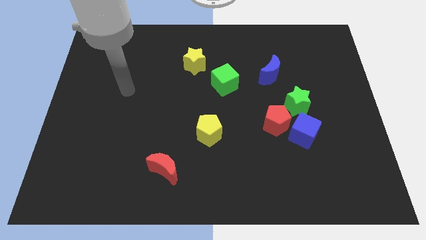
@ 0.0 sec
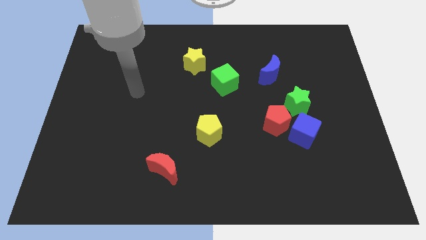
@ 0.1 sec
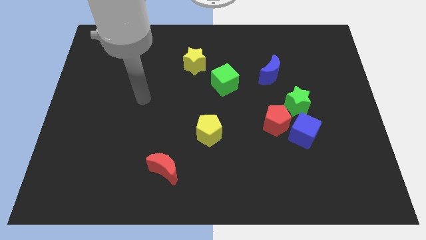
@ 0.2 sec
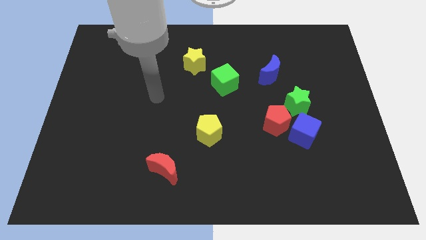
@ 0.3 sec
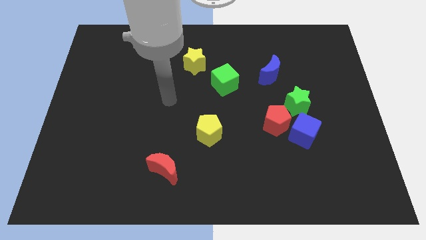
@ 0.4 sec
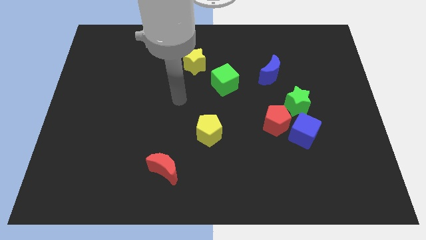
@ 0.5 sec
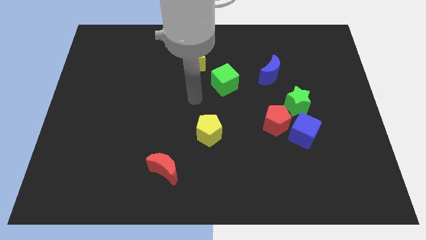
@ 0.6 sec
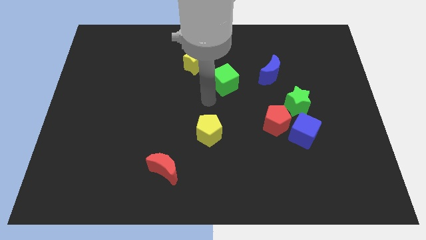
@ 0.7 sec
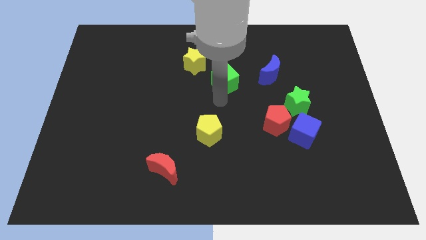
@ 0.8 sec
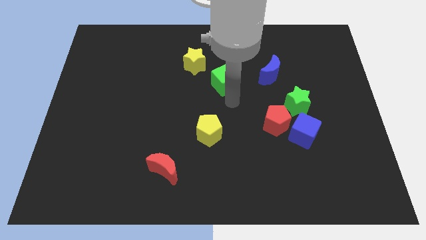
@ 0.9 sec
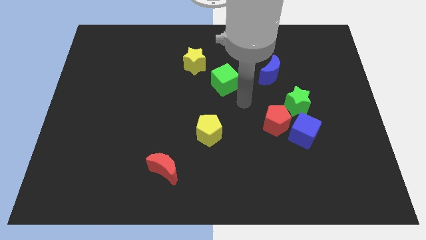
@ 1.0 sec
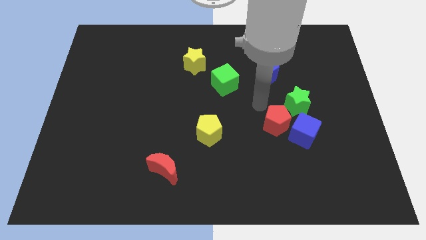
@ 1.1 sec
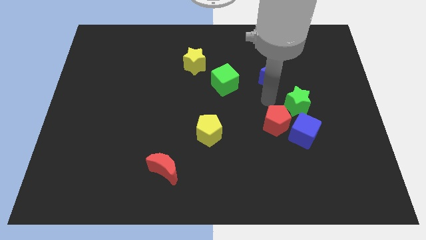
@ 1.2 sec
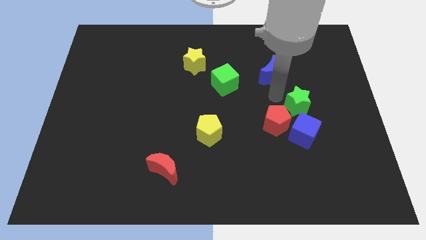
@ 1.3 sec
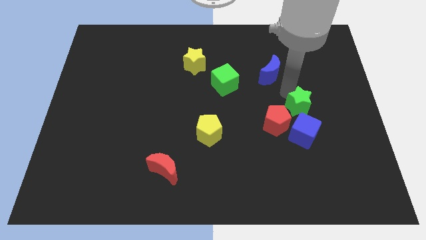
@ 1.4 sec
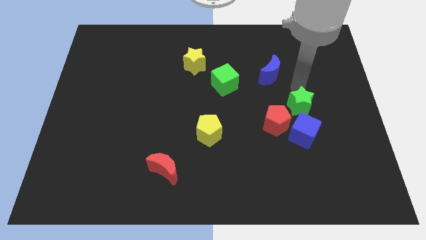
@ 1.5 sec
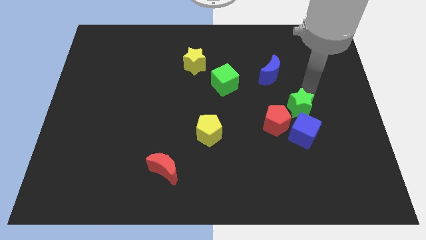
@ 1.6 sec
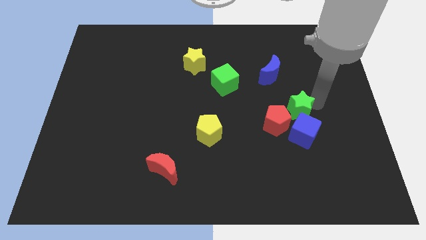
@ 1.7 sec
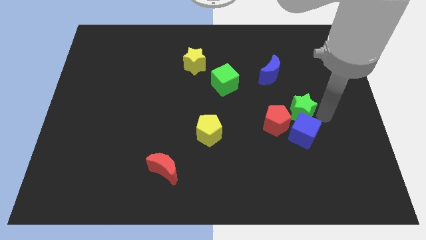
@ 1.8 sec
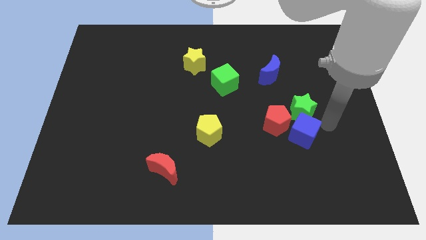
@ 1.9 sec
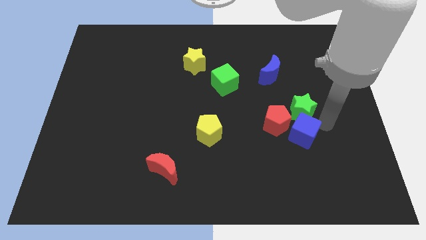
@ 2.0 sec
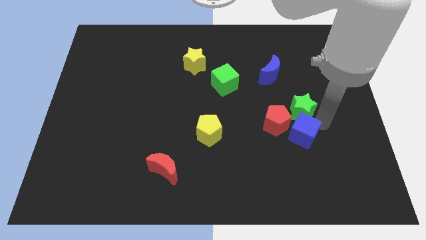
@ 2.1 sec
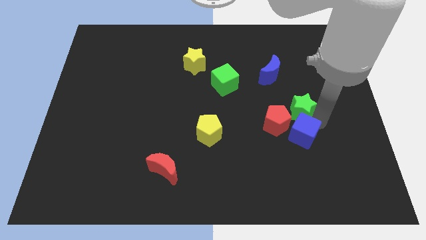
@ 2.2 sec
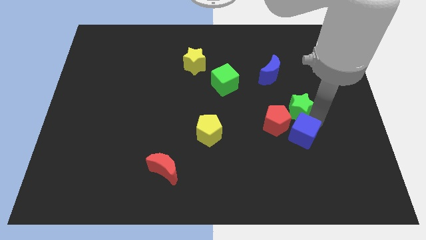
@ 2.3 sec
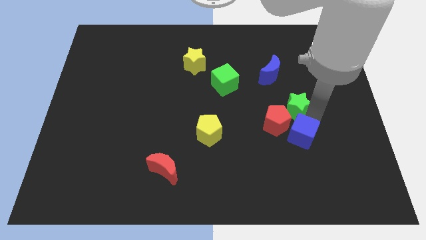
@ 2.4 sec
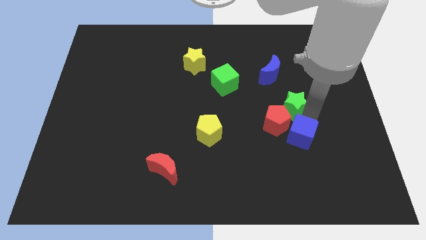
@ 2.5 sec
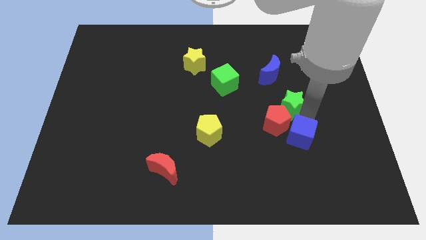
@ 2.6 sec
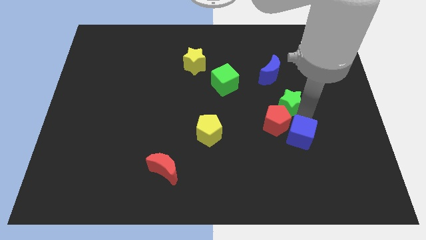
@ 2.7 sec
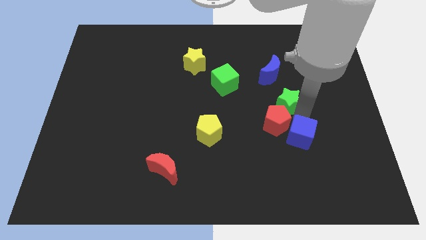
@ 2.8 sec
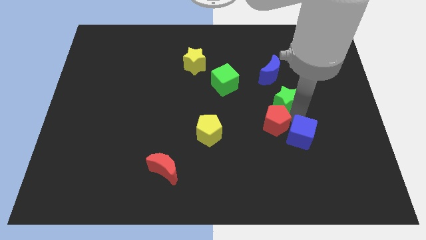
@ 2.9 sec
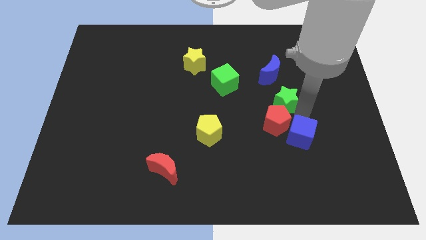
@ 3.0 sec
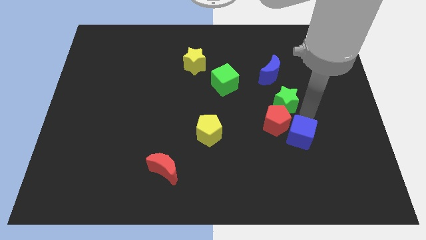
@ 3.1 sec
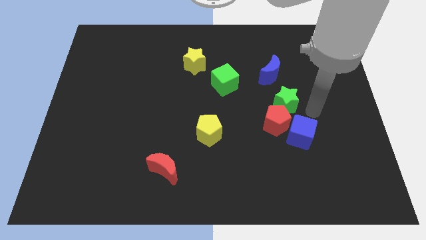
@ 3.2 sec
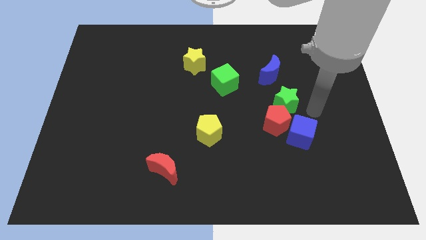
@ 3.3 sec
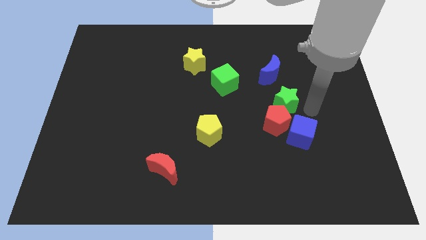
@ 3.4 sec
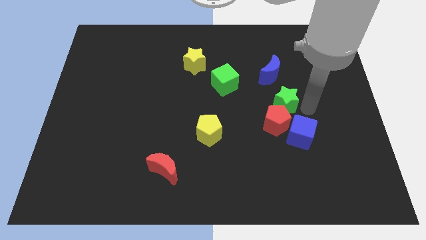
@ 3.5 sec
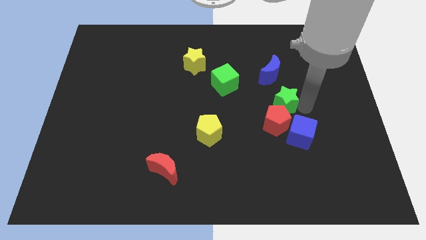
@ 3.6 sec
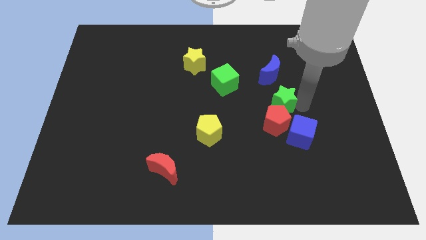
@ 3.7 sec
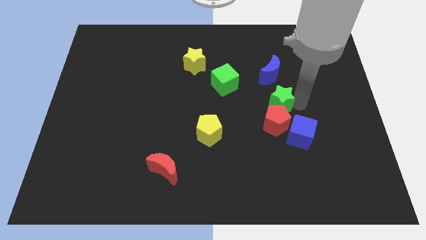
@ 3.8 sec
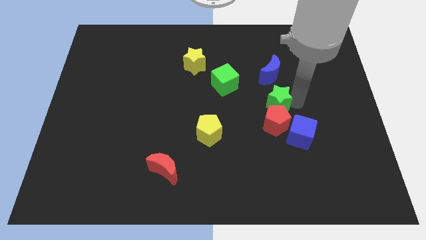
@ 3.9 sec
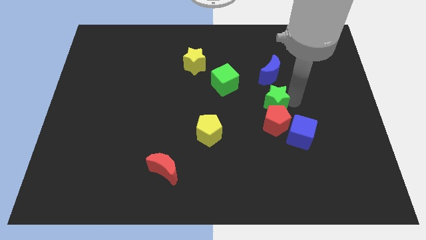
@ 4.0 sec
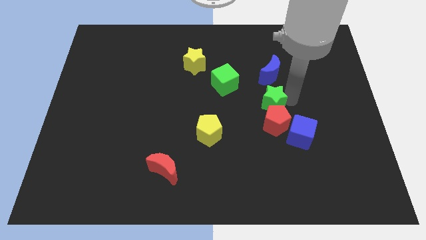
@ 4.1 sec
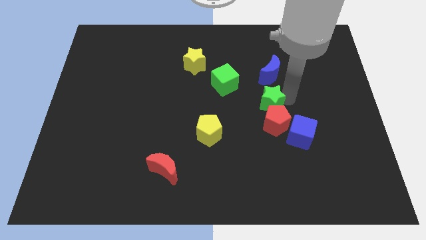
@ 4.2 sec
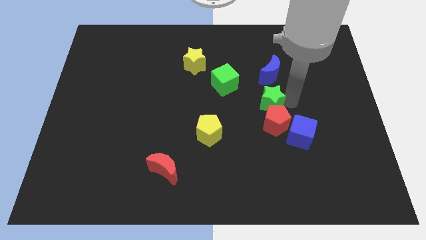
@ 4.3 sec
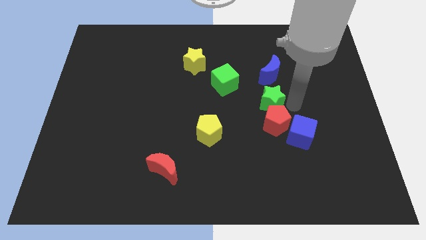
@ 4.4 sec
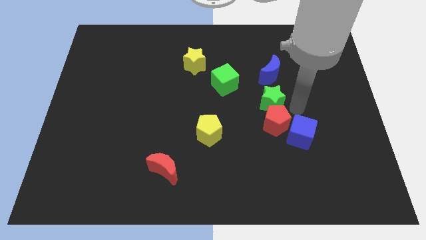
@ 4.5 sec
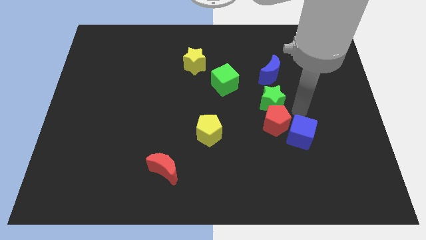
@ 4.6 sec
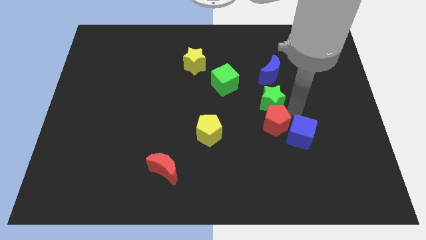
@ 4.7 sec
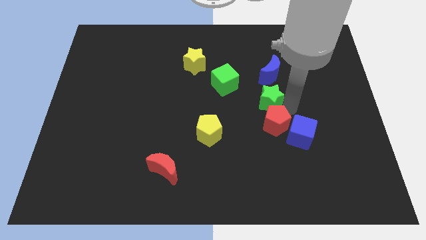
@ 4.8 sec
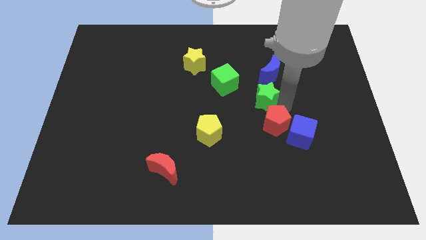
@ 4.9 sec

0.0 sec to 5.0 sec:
push the green star a little to the left

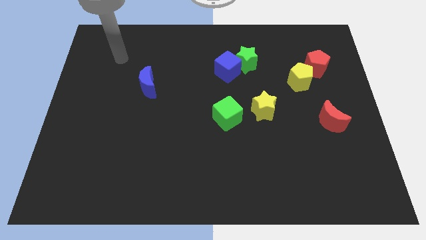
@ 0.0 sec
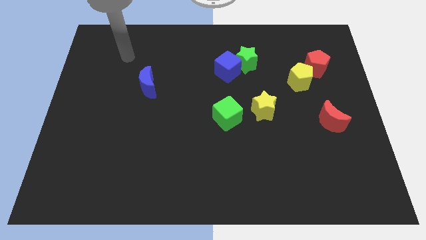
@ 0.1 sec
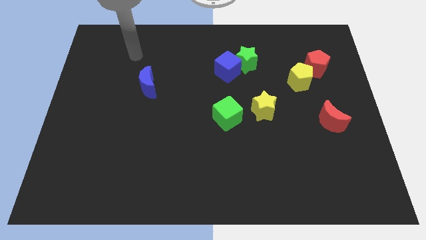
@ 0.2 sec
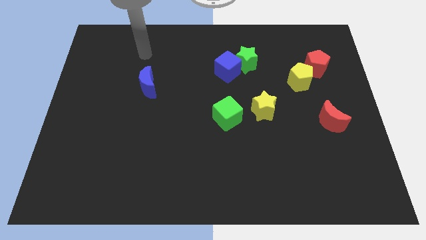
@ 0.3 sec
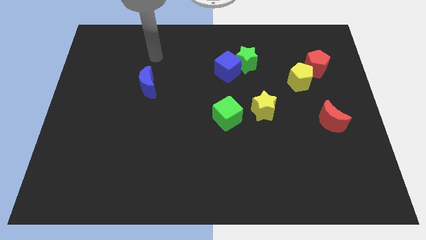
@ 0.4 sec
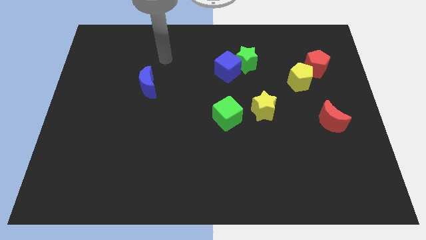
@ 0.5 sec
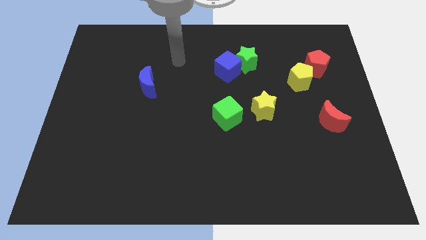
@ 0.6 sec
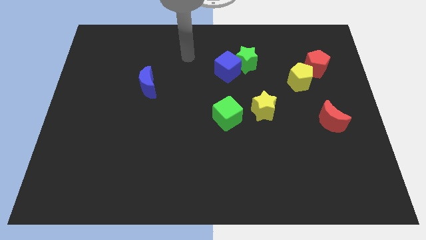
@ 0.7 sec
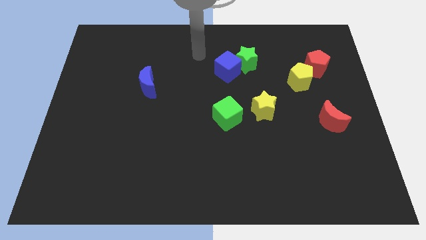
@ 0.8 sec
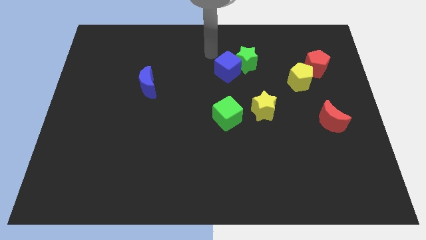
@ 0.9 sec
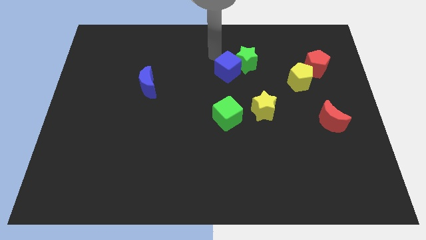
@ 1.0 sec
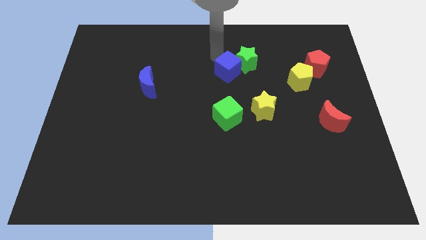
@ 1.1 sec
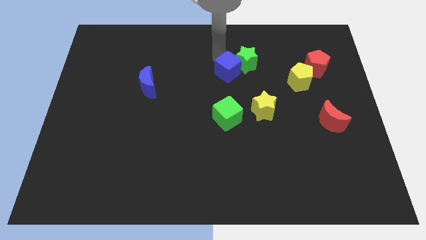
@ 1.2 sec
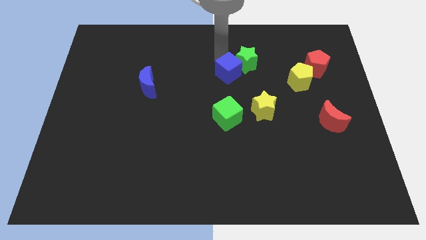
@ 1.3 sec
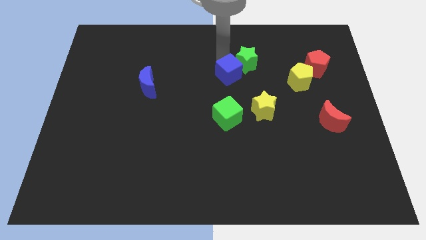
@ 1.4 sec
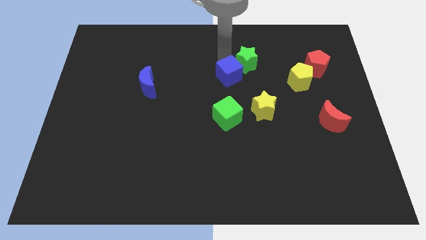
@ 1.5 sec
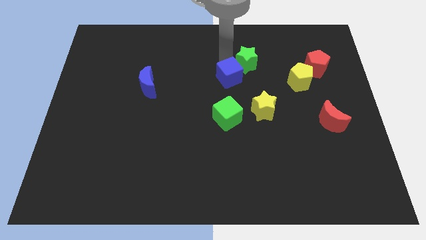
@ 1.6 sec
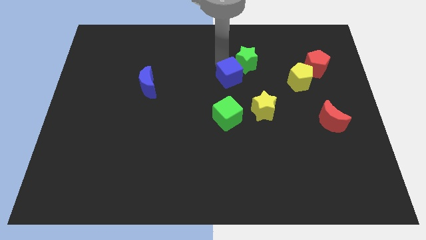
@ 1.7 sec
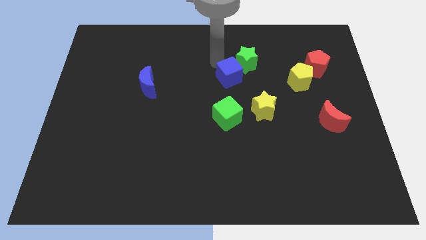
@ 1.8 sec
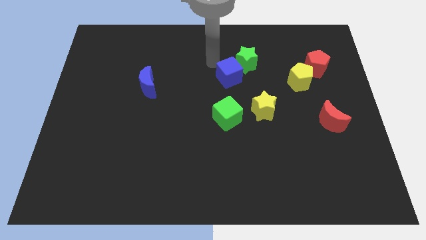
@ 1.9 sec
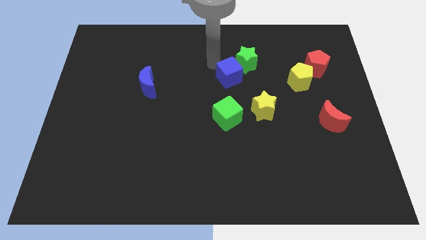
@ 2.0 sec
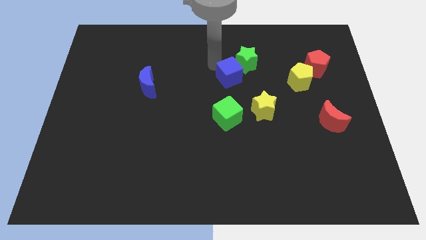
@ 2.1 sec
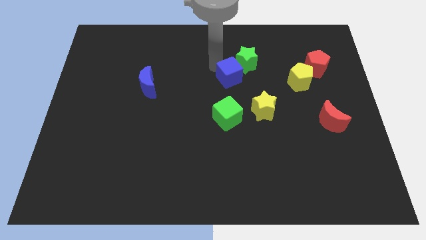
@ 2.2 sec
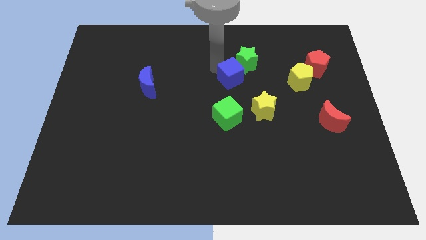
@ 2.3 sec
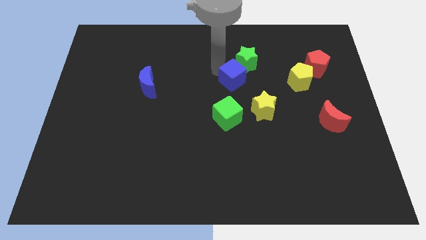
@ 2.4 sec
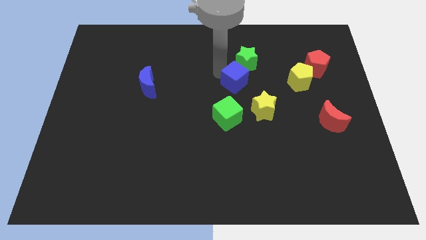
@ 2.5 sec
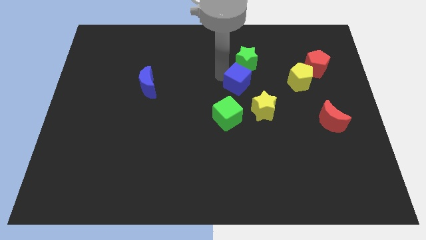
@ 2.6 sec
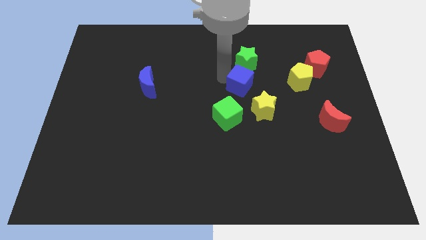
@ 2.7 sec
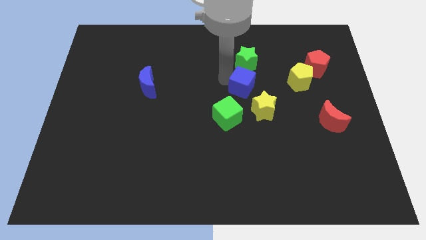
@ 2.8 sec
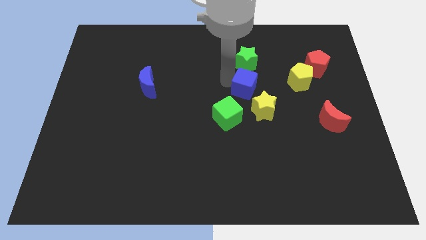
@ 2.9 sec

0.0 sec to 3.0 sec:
slightly move the blue cube diagonally down and right
